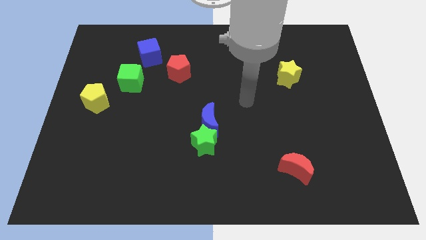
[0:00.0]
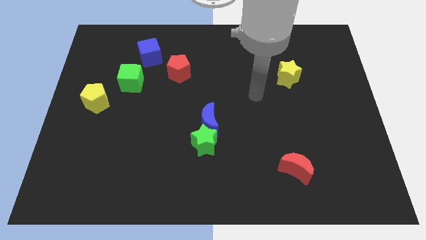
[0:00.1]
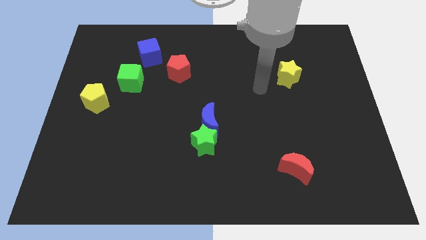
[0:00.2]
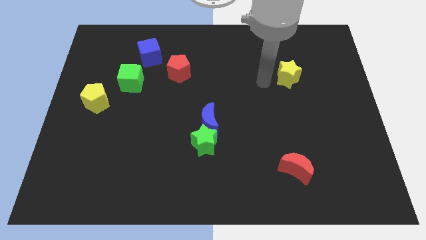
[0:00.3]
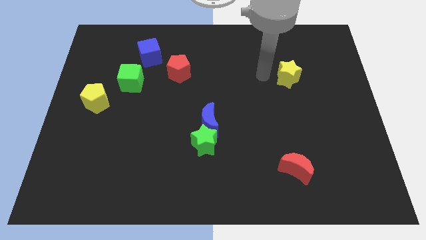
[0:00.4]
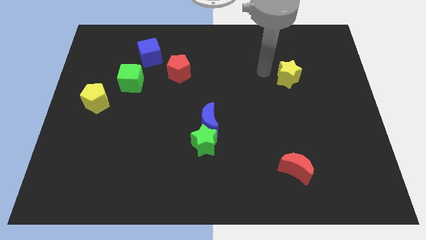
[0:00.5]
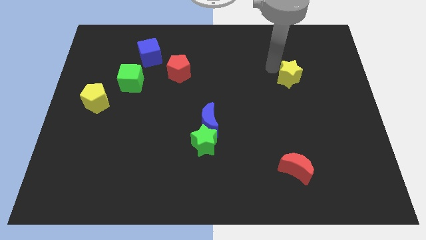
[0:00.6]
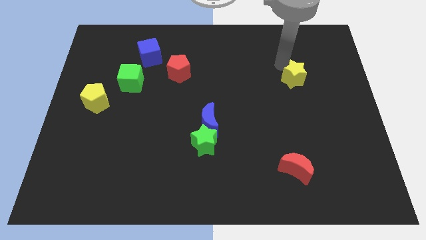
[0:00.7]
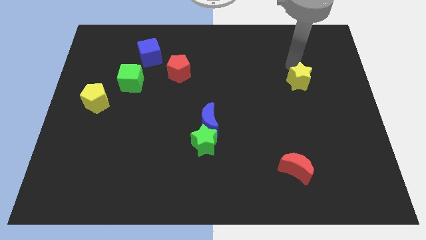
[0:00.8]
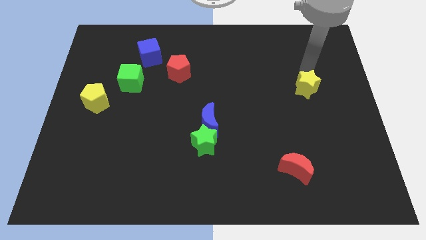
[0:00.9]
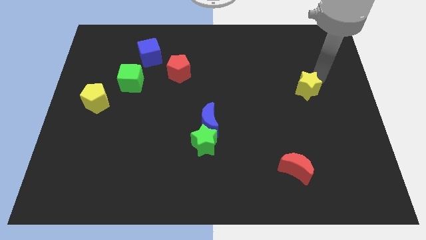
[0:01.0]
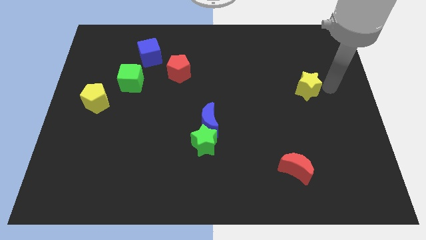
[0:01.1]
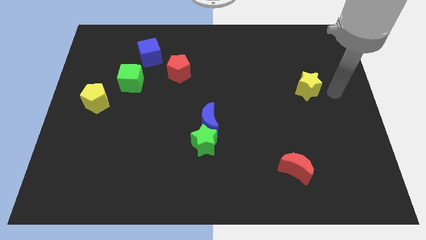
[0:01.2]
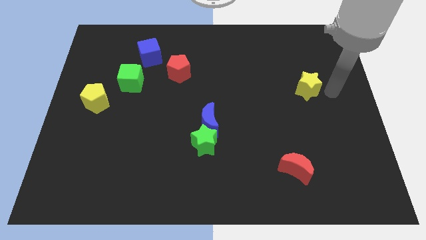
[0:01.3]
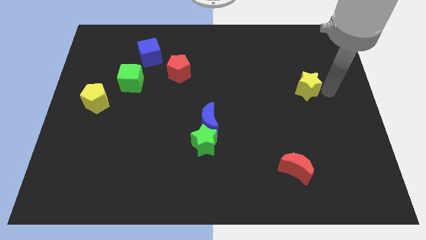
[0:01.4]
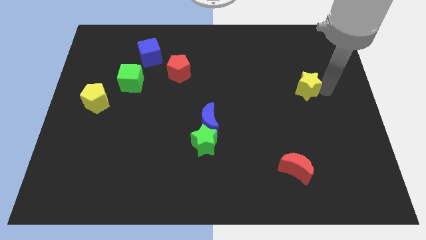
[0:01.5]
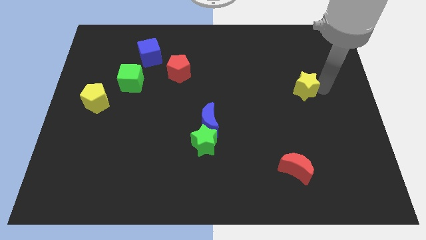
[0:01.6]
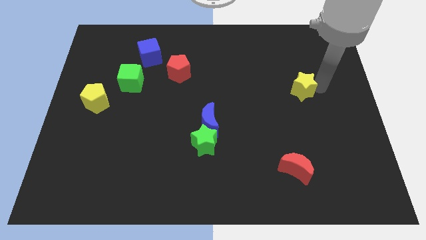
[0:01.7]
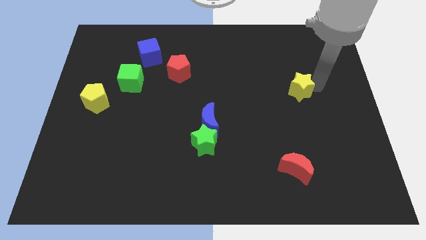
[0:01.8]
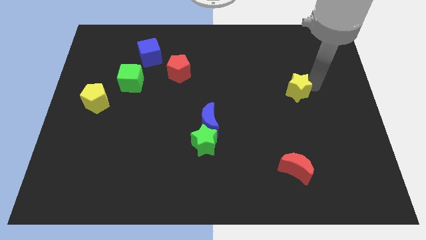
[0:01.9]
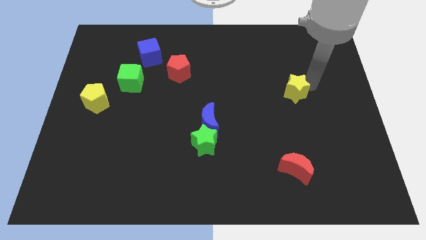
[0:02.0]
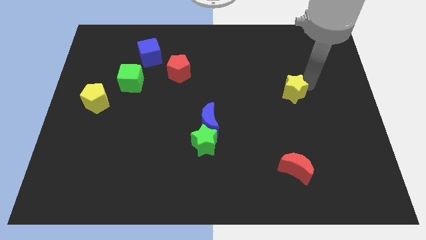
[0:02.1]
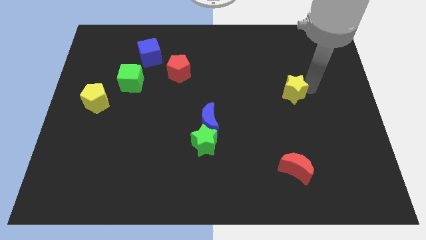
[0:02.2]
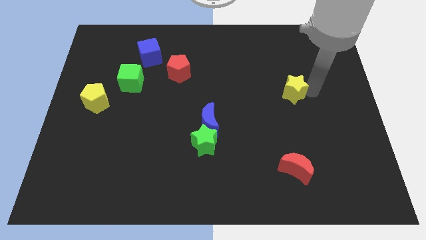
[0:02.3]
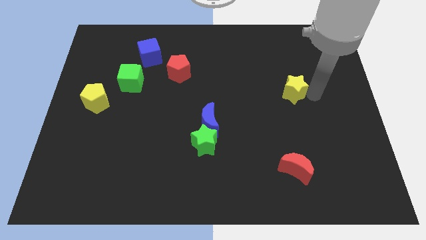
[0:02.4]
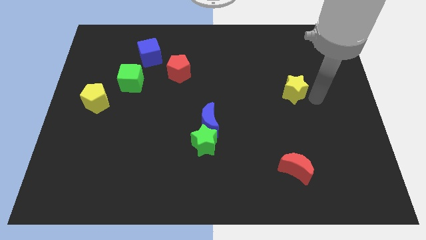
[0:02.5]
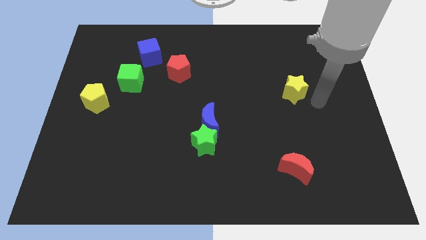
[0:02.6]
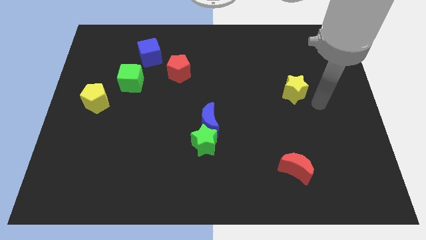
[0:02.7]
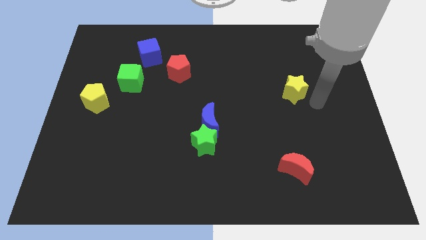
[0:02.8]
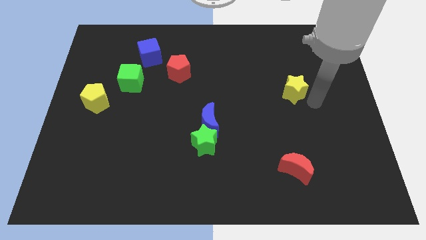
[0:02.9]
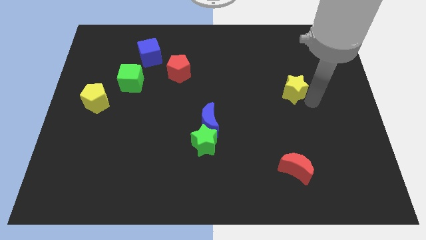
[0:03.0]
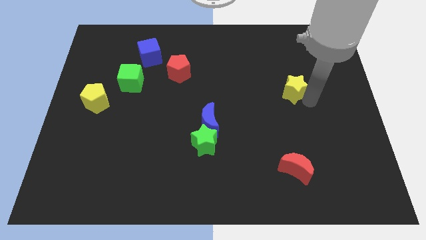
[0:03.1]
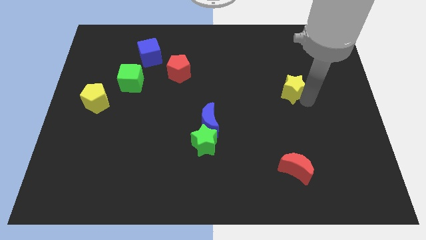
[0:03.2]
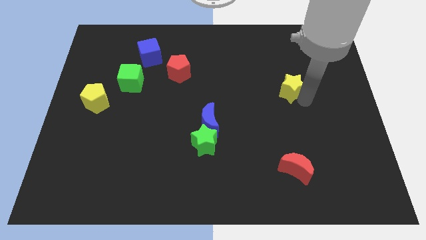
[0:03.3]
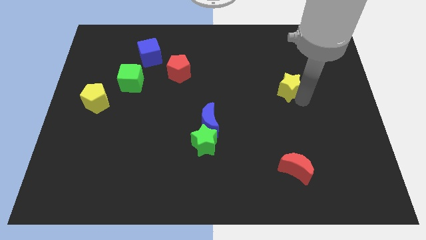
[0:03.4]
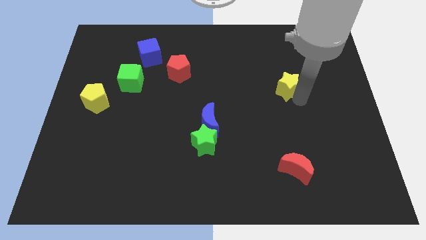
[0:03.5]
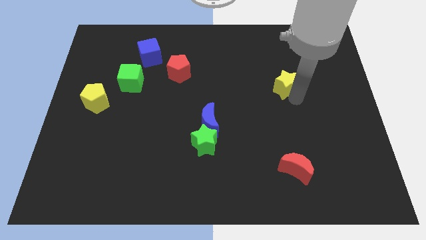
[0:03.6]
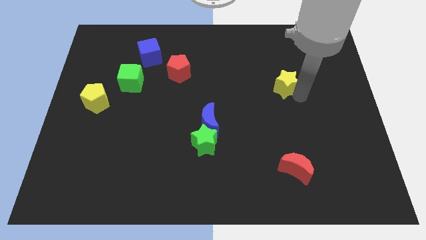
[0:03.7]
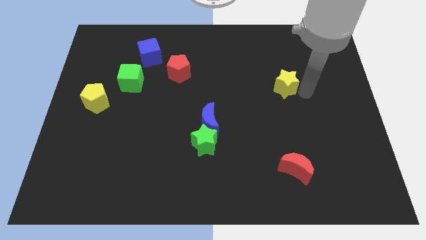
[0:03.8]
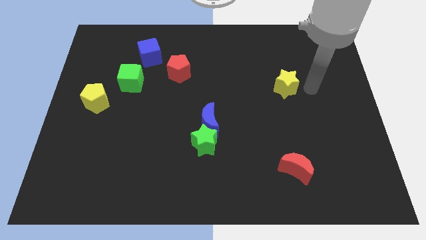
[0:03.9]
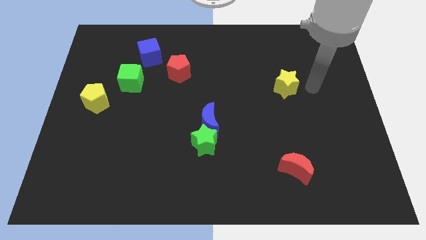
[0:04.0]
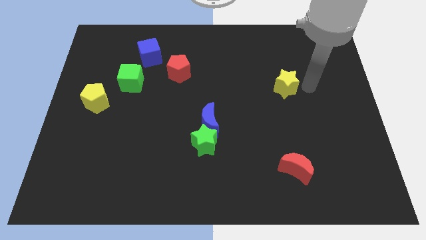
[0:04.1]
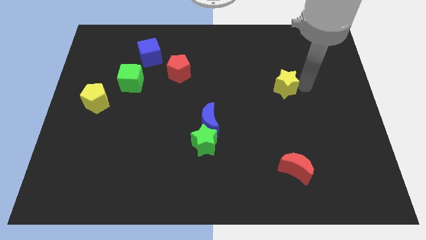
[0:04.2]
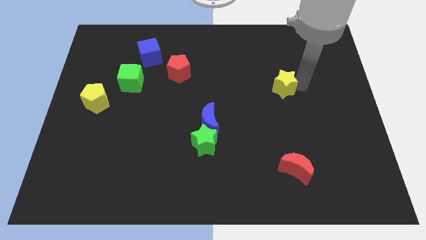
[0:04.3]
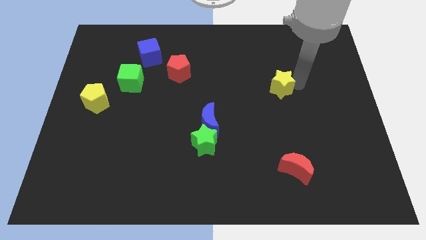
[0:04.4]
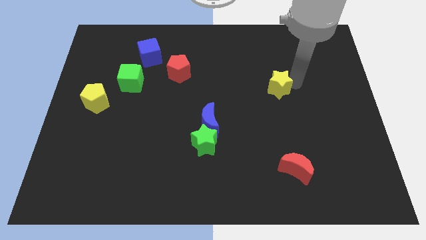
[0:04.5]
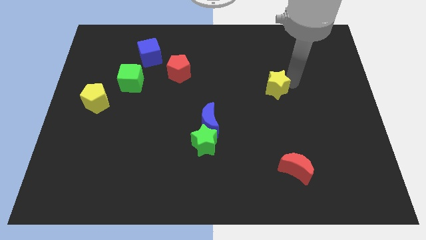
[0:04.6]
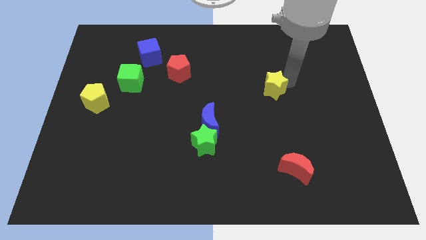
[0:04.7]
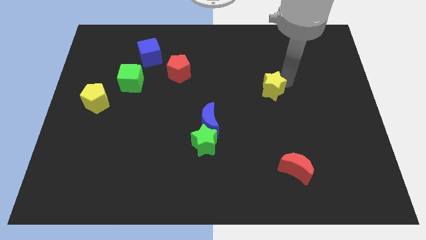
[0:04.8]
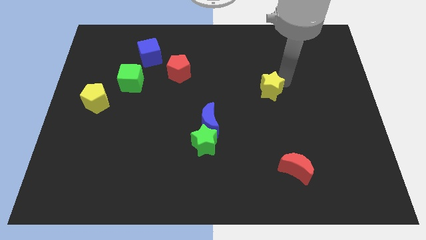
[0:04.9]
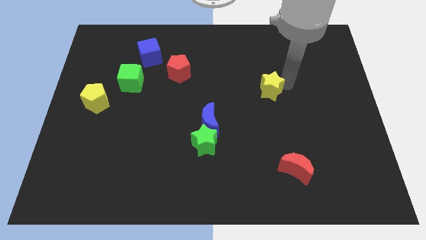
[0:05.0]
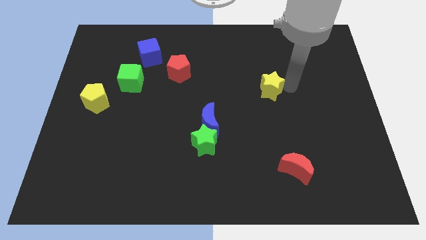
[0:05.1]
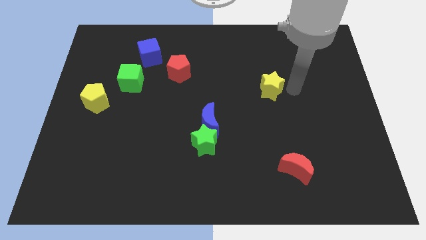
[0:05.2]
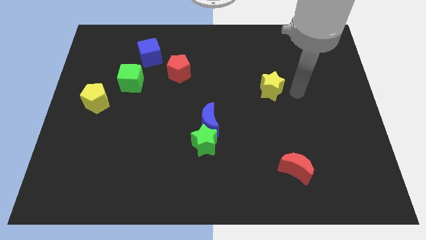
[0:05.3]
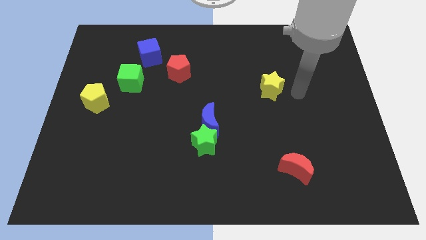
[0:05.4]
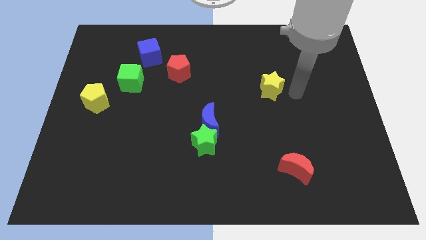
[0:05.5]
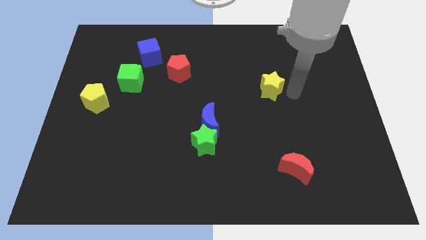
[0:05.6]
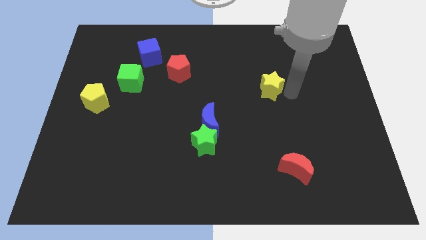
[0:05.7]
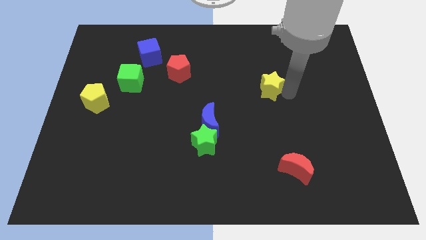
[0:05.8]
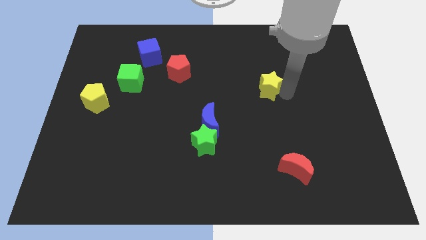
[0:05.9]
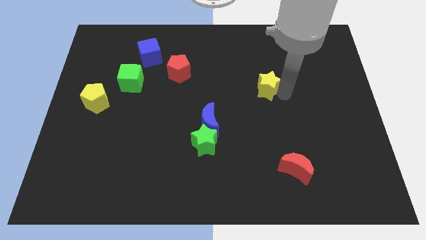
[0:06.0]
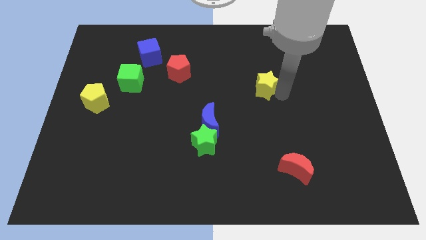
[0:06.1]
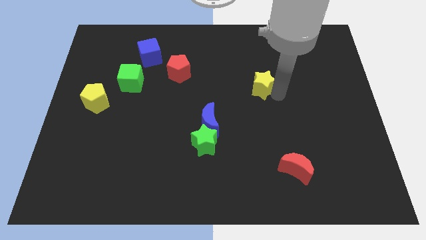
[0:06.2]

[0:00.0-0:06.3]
move the yellow star to the center of the board

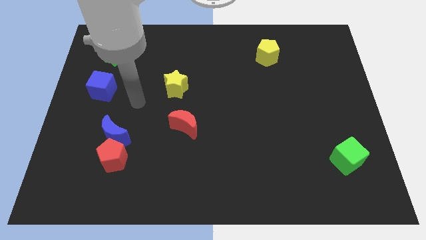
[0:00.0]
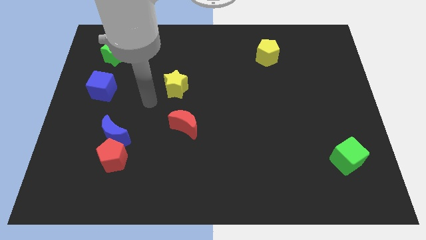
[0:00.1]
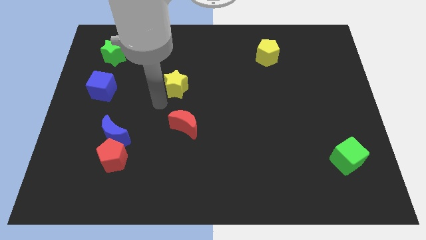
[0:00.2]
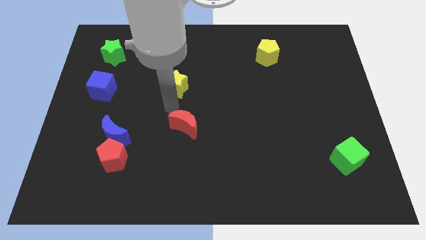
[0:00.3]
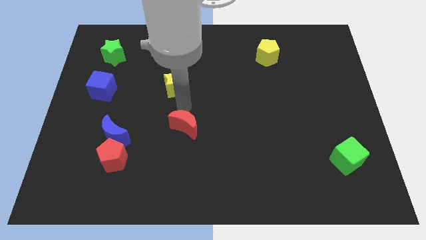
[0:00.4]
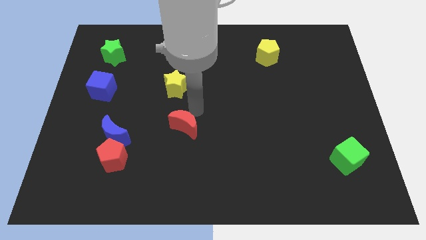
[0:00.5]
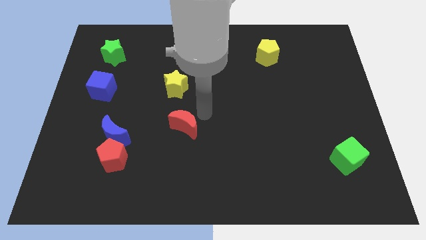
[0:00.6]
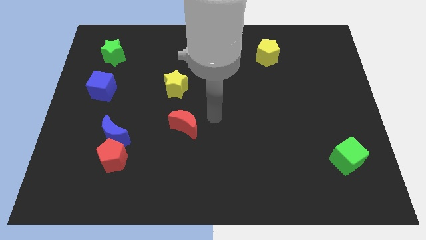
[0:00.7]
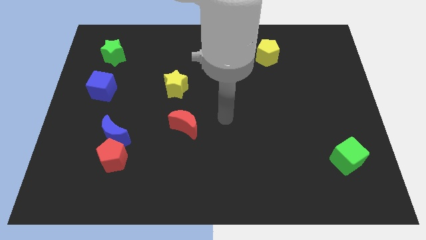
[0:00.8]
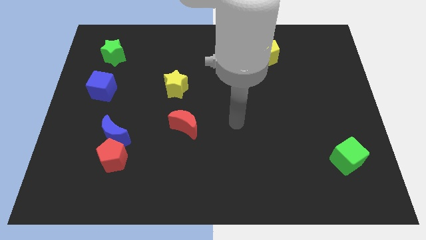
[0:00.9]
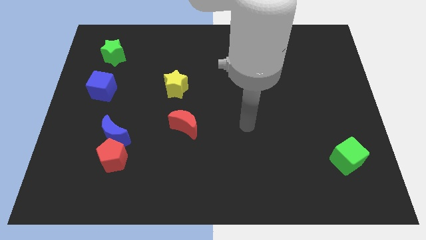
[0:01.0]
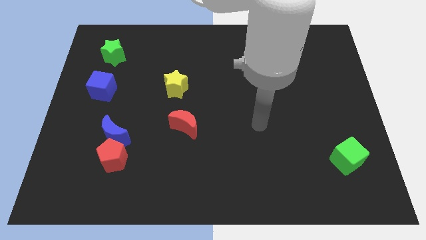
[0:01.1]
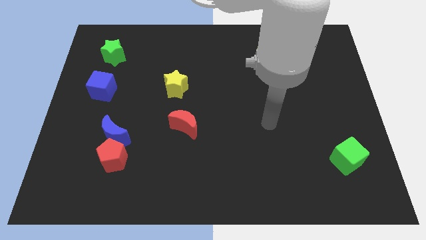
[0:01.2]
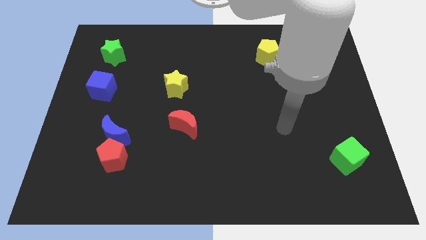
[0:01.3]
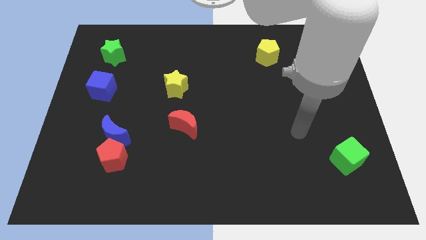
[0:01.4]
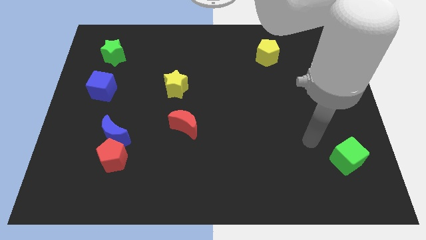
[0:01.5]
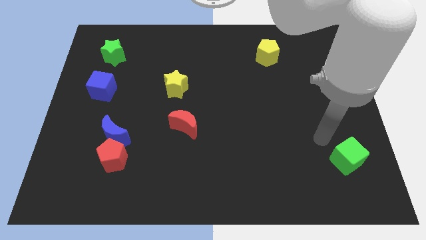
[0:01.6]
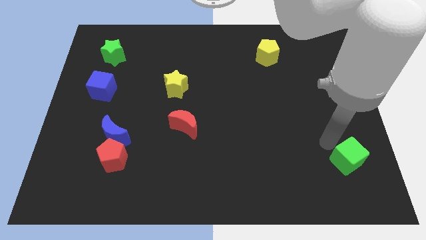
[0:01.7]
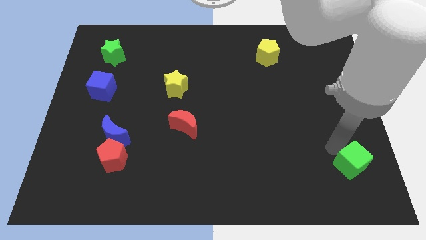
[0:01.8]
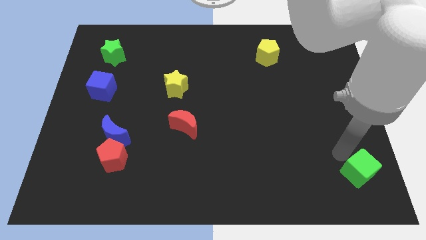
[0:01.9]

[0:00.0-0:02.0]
slide the green cube to the bottom right
